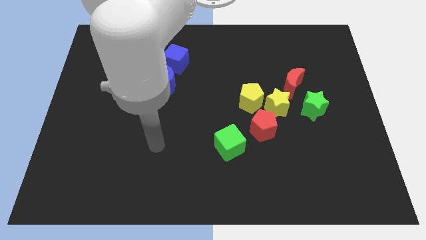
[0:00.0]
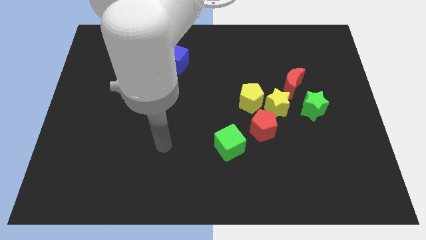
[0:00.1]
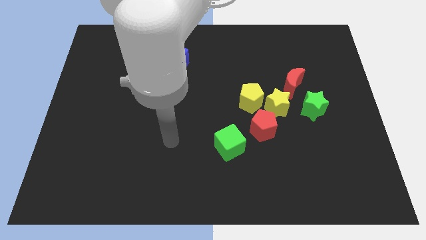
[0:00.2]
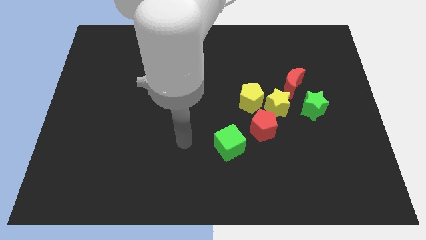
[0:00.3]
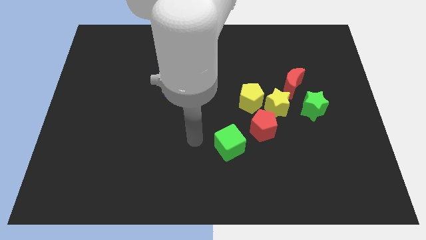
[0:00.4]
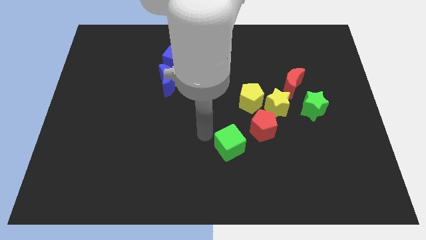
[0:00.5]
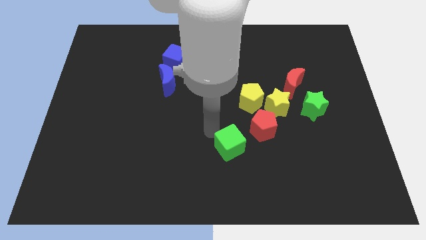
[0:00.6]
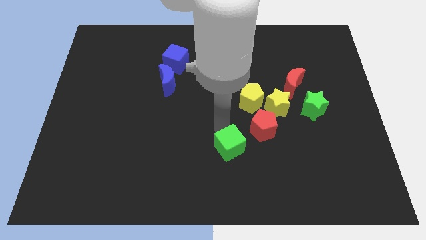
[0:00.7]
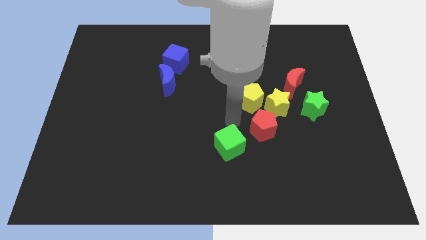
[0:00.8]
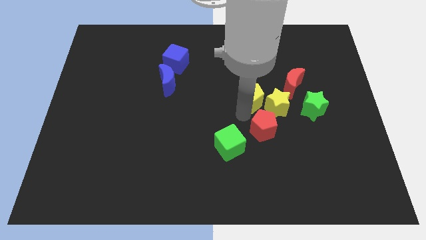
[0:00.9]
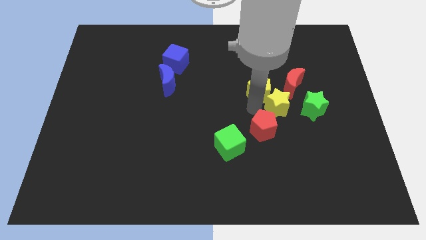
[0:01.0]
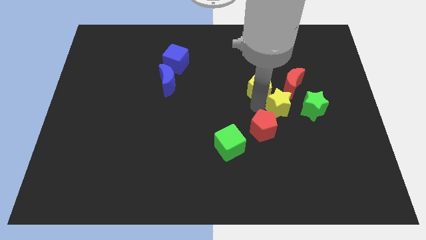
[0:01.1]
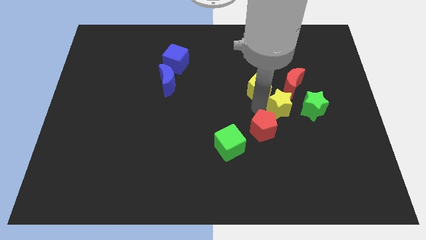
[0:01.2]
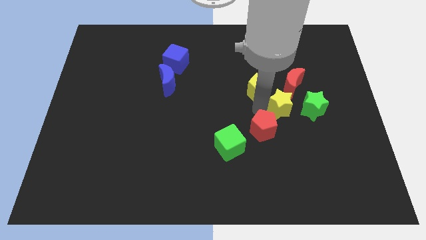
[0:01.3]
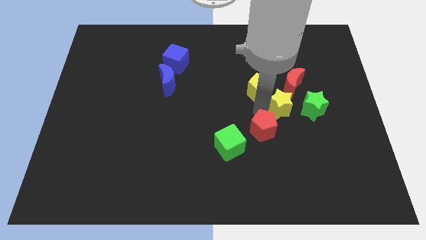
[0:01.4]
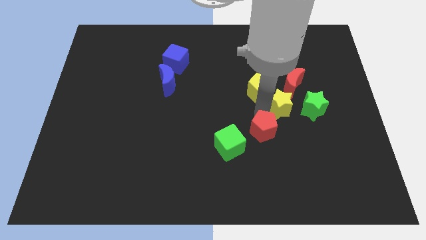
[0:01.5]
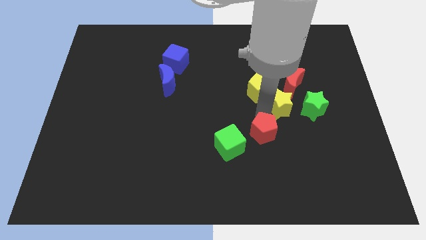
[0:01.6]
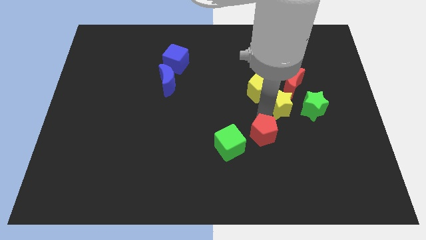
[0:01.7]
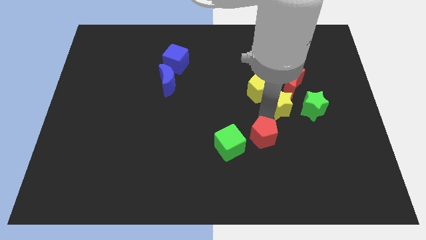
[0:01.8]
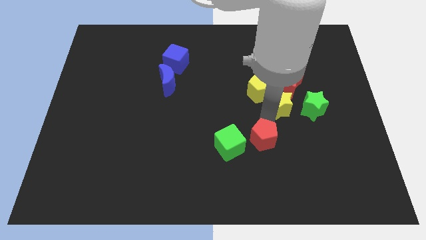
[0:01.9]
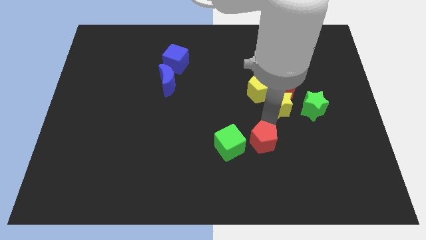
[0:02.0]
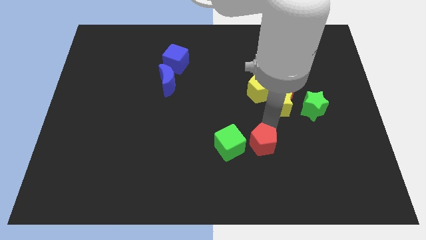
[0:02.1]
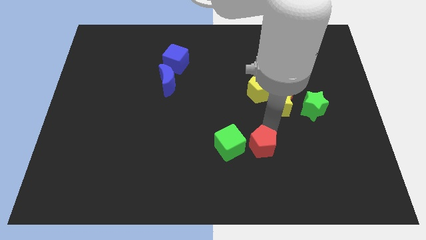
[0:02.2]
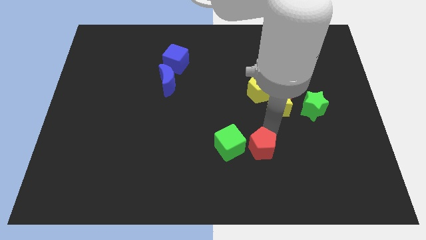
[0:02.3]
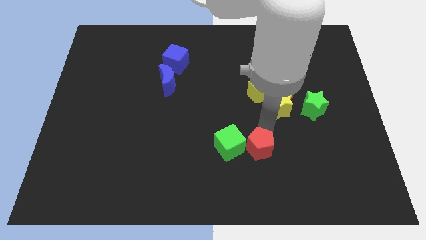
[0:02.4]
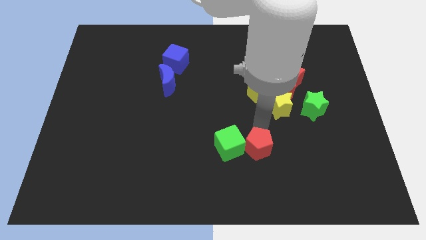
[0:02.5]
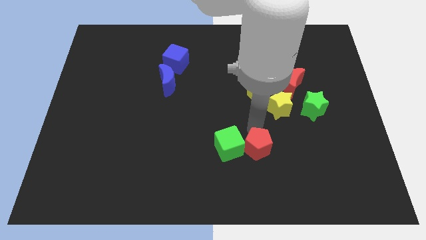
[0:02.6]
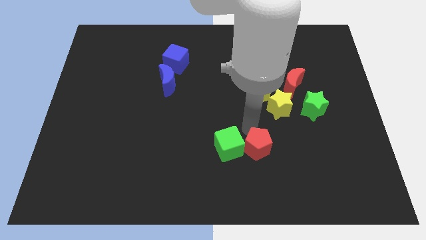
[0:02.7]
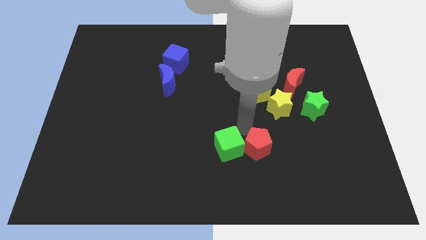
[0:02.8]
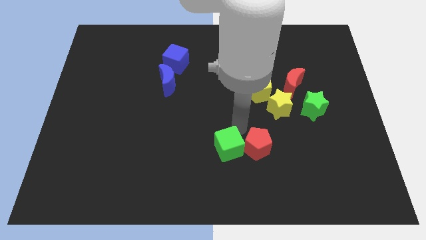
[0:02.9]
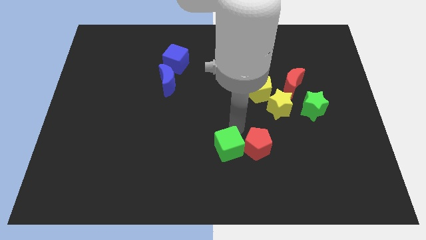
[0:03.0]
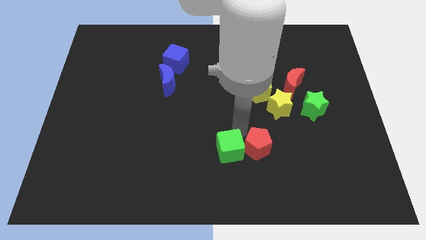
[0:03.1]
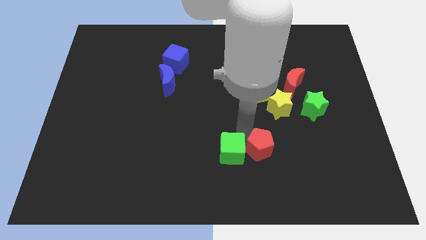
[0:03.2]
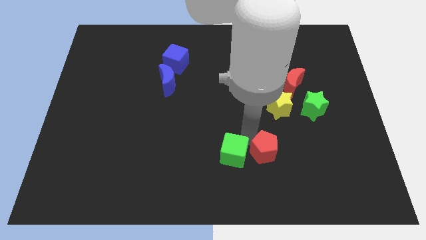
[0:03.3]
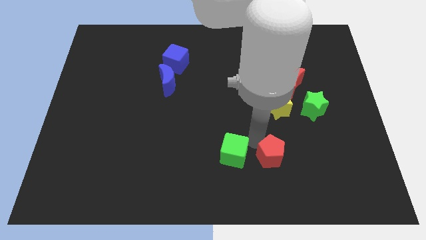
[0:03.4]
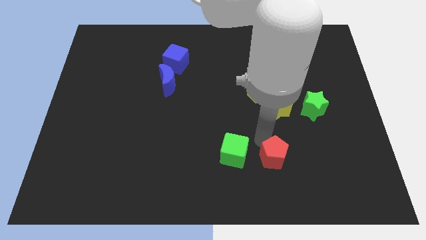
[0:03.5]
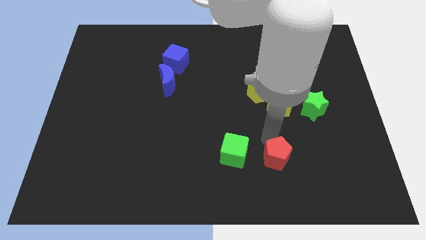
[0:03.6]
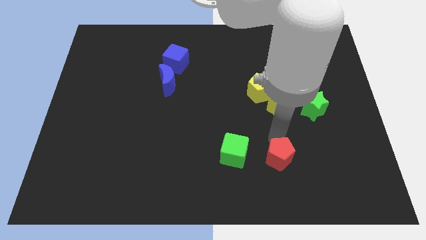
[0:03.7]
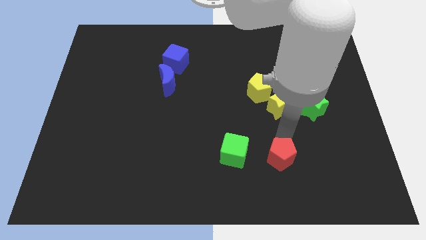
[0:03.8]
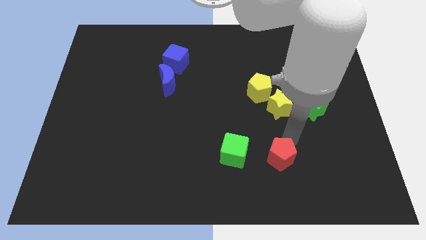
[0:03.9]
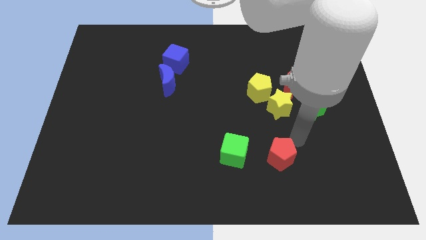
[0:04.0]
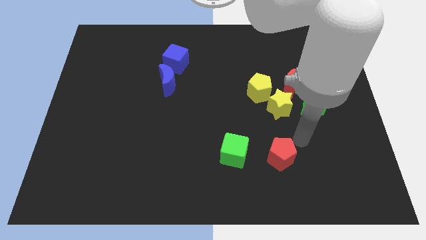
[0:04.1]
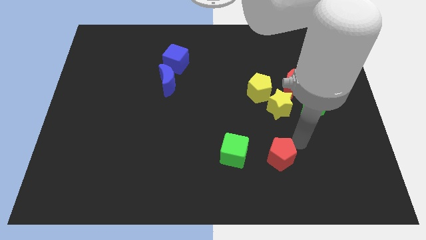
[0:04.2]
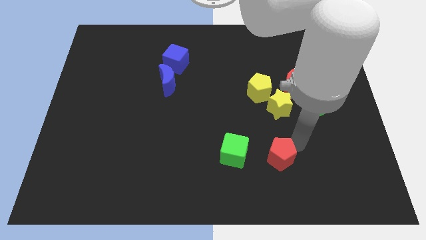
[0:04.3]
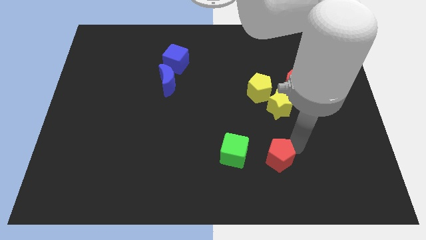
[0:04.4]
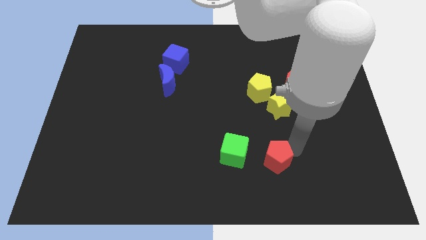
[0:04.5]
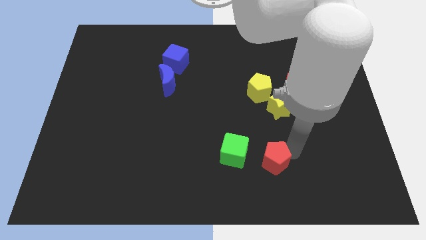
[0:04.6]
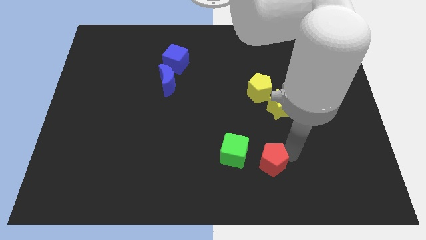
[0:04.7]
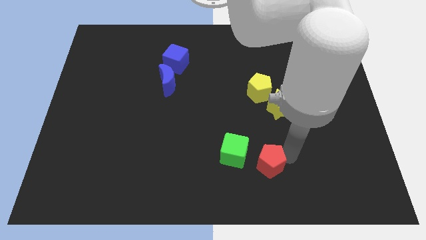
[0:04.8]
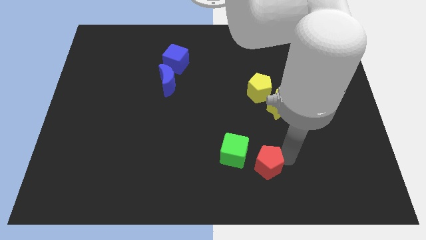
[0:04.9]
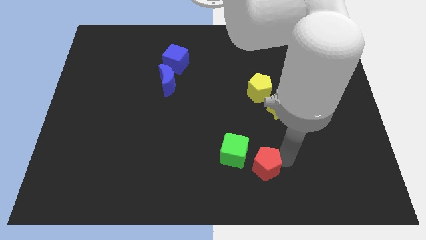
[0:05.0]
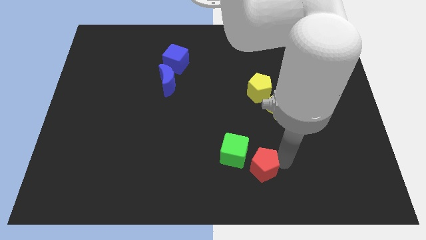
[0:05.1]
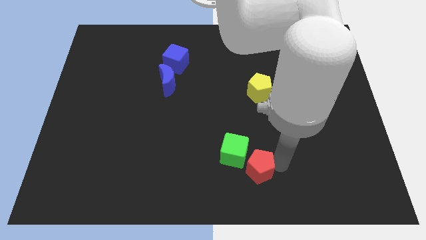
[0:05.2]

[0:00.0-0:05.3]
put the red pentagon to the bottom
